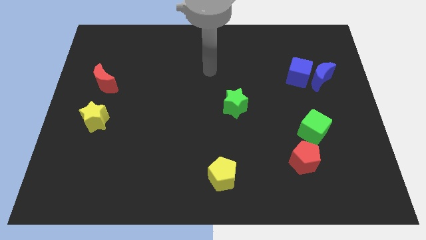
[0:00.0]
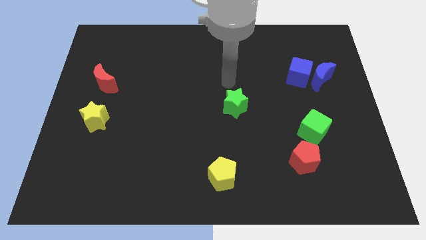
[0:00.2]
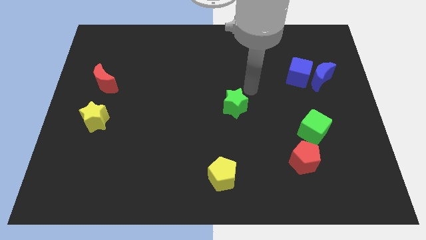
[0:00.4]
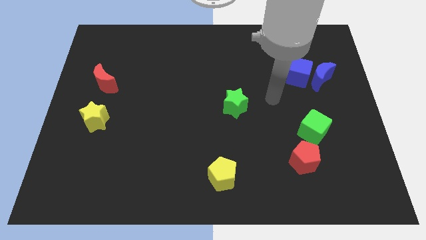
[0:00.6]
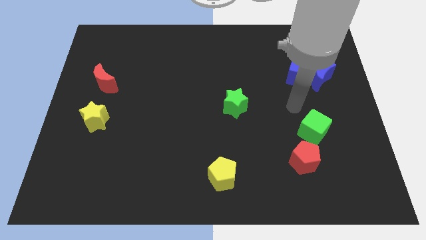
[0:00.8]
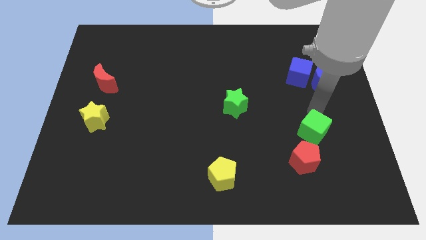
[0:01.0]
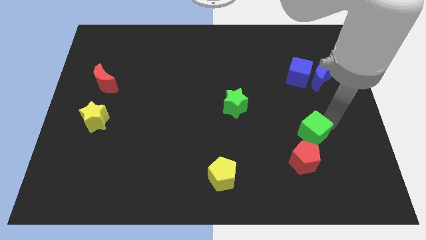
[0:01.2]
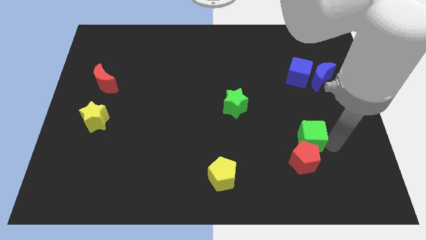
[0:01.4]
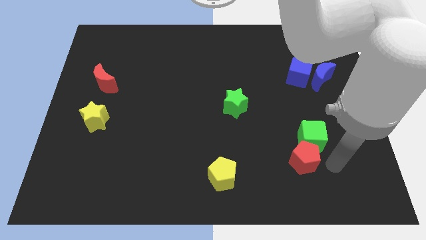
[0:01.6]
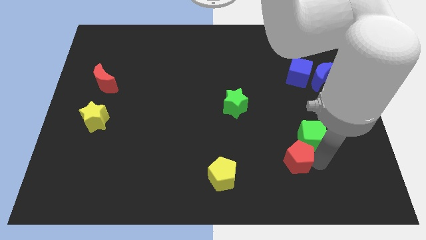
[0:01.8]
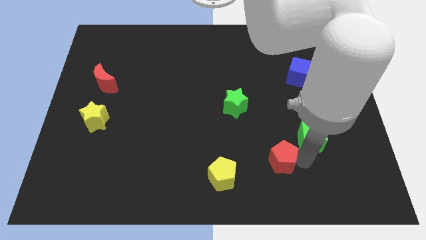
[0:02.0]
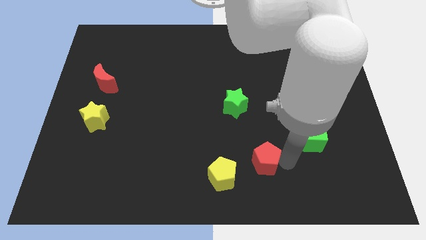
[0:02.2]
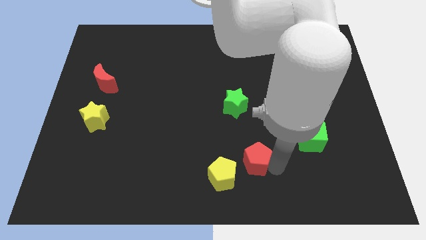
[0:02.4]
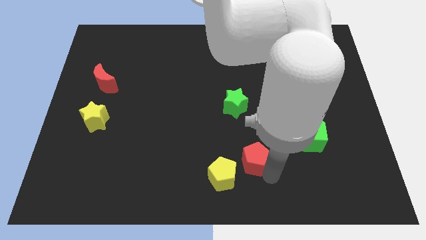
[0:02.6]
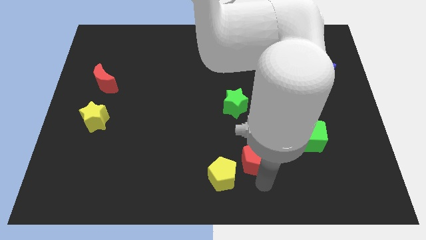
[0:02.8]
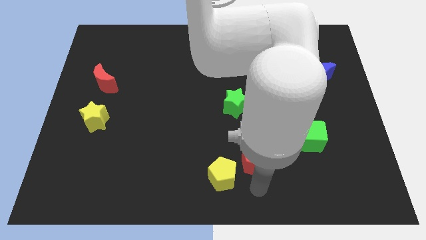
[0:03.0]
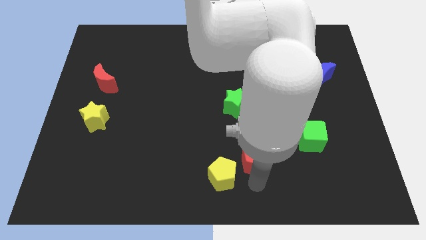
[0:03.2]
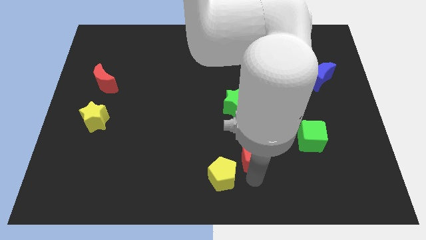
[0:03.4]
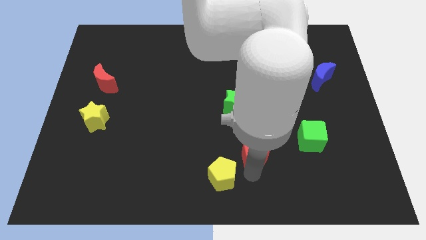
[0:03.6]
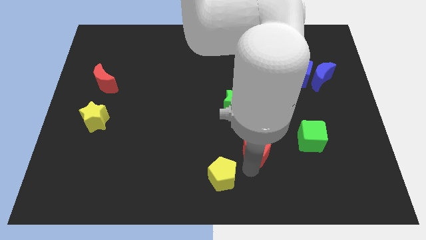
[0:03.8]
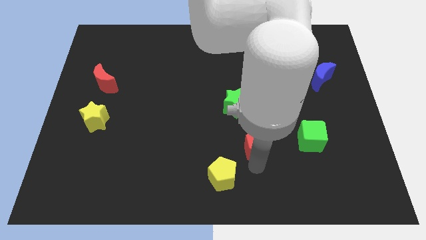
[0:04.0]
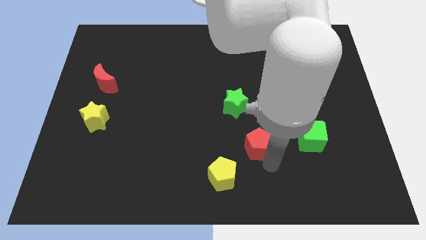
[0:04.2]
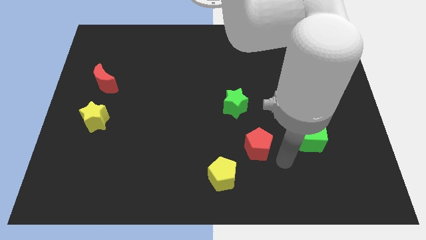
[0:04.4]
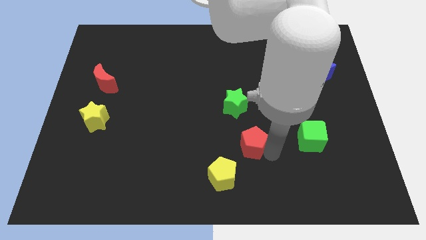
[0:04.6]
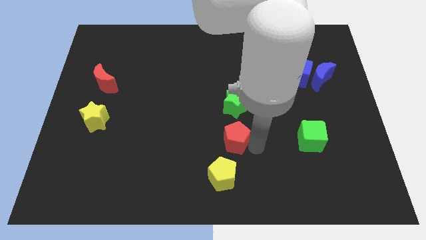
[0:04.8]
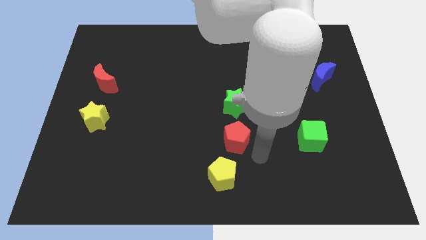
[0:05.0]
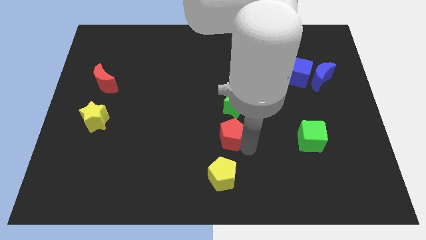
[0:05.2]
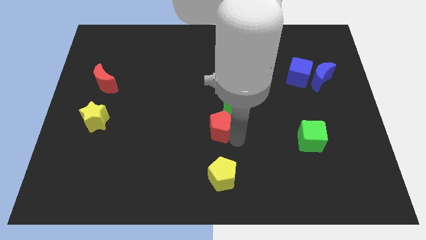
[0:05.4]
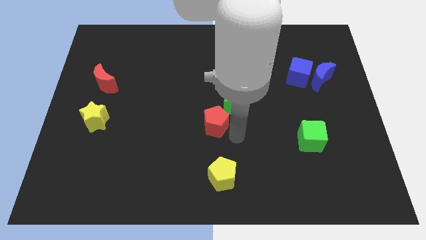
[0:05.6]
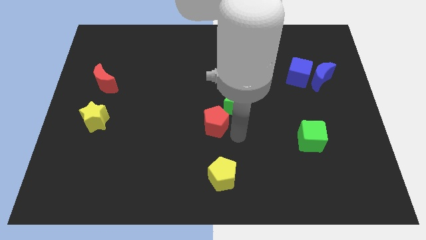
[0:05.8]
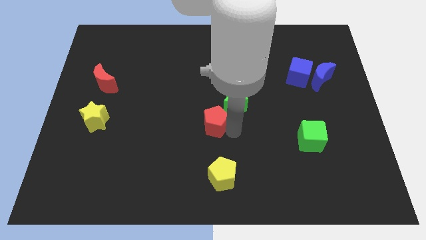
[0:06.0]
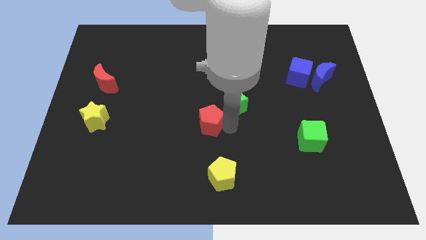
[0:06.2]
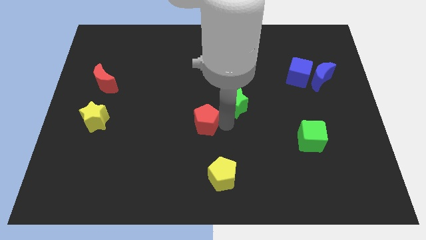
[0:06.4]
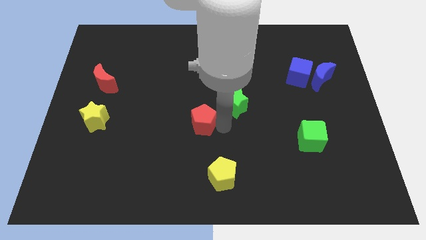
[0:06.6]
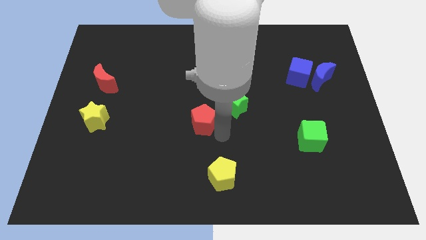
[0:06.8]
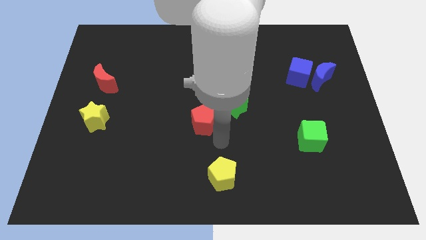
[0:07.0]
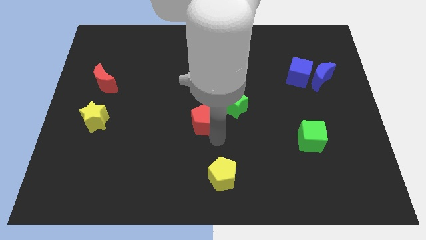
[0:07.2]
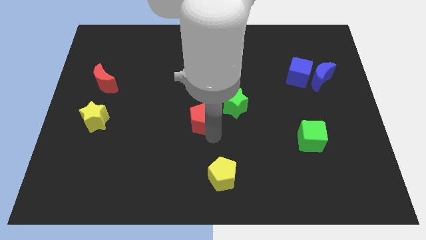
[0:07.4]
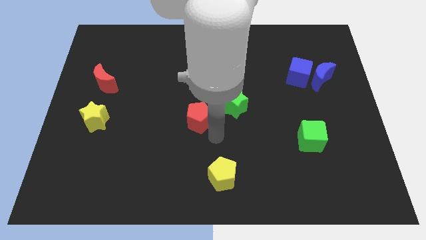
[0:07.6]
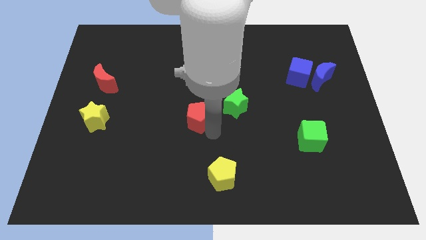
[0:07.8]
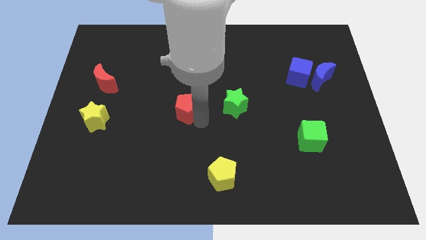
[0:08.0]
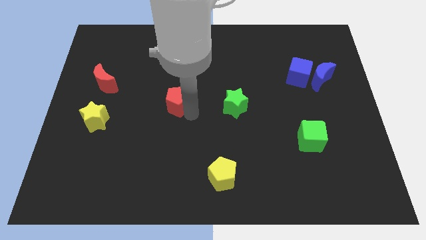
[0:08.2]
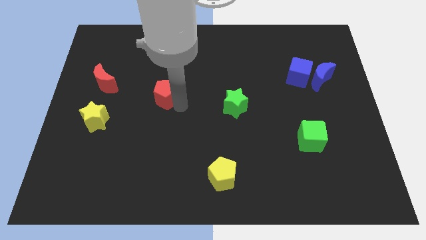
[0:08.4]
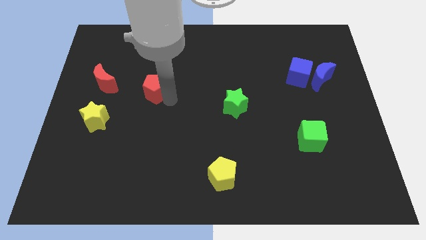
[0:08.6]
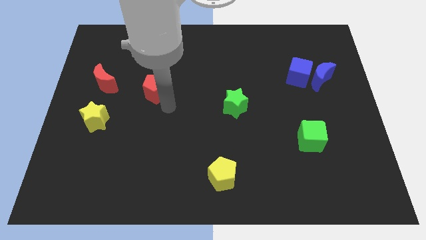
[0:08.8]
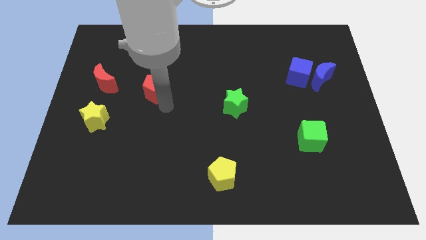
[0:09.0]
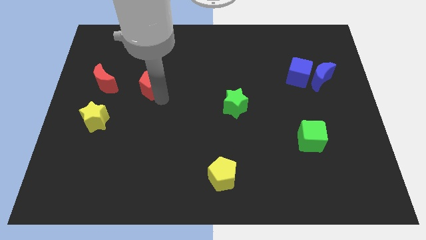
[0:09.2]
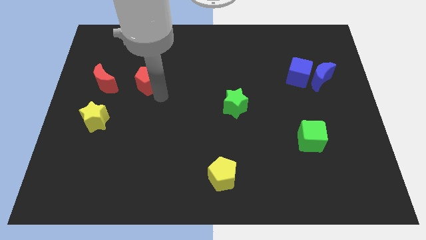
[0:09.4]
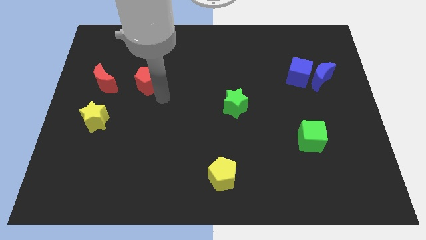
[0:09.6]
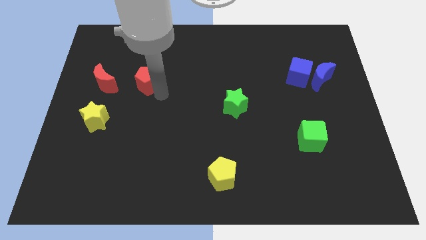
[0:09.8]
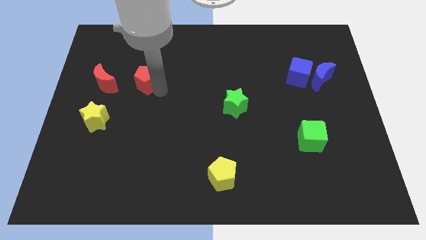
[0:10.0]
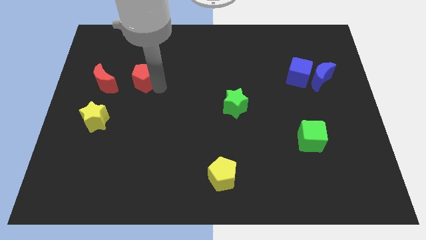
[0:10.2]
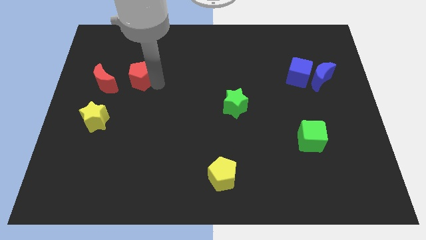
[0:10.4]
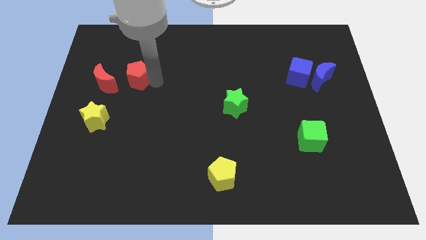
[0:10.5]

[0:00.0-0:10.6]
put the red pentagon to the top right of the red moon

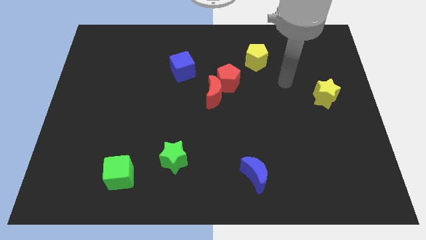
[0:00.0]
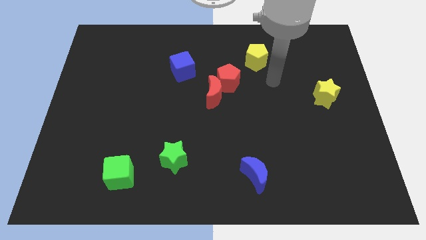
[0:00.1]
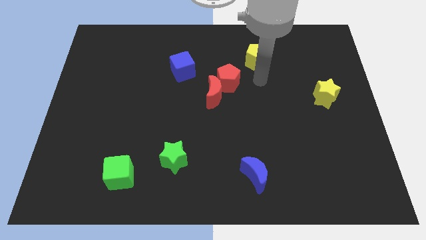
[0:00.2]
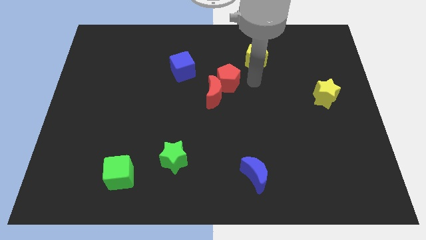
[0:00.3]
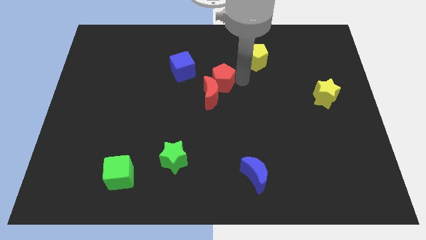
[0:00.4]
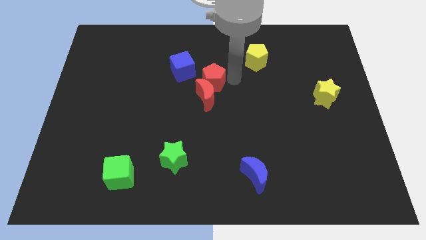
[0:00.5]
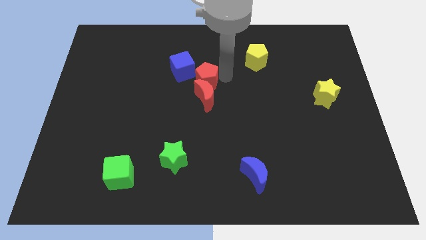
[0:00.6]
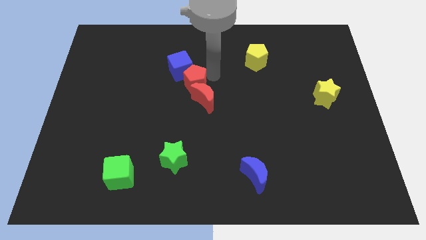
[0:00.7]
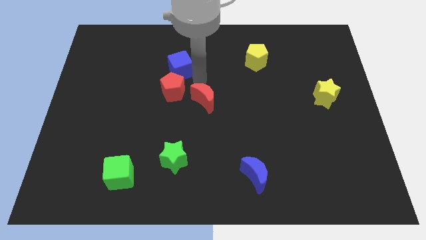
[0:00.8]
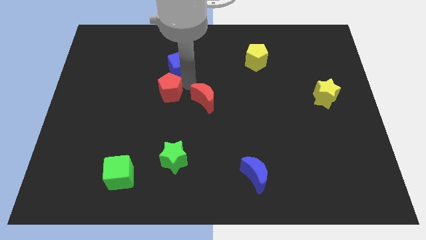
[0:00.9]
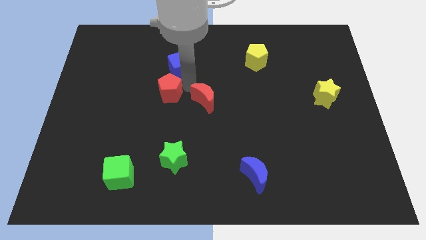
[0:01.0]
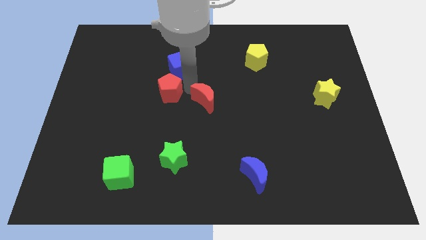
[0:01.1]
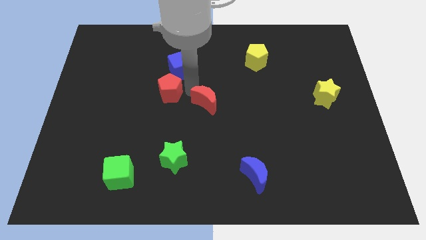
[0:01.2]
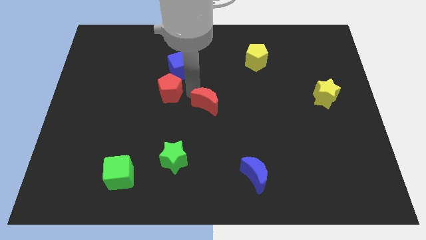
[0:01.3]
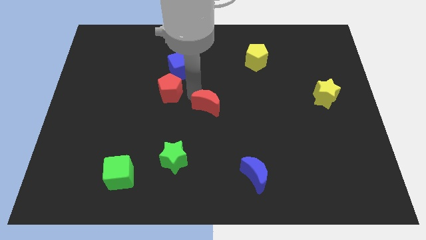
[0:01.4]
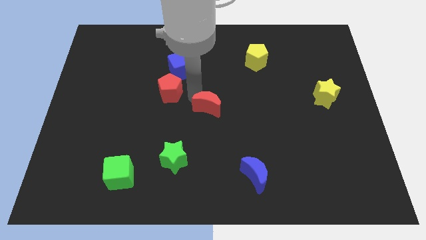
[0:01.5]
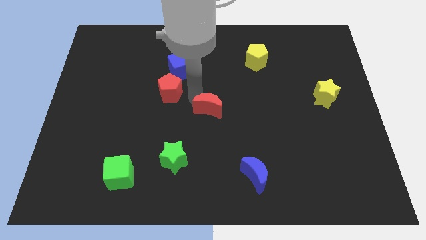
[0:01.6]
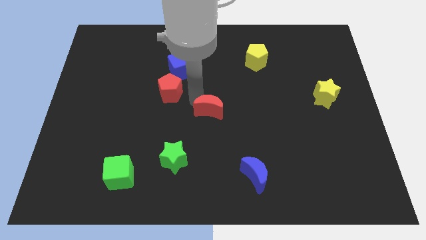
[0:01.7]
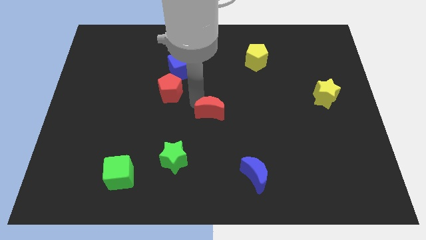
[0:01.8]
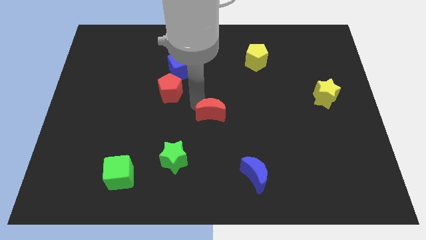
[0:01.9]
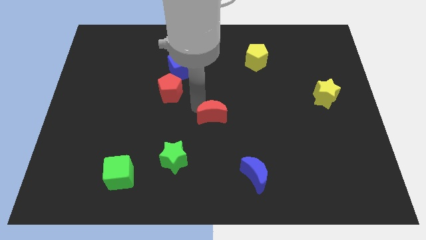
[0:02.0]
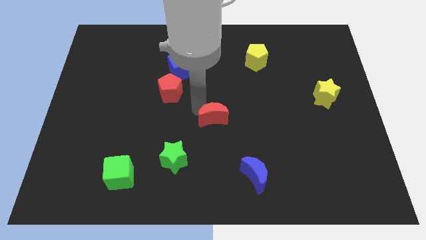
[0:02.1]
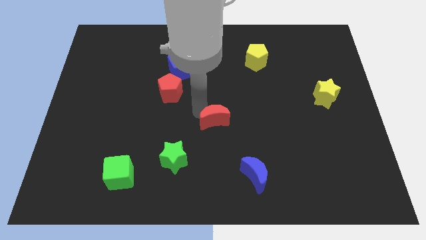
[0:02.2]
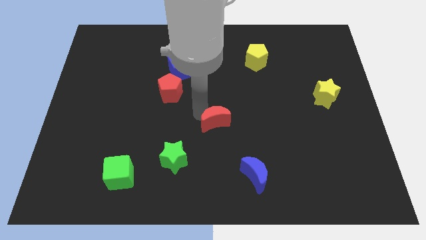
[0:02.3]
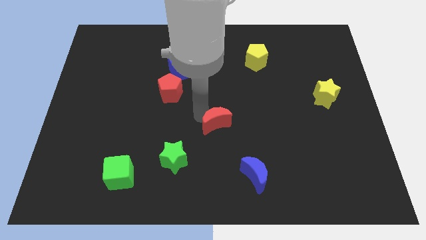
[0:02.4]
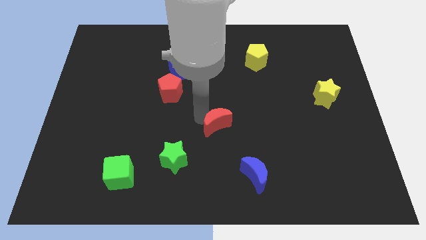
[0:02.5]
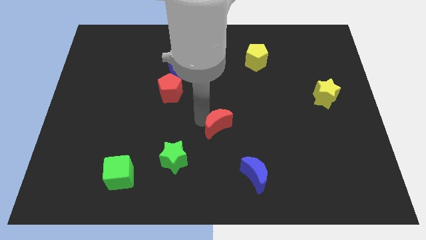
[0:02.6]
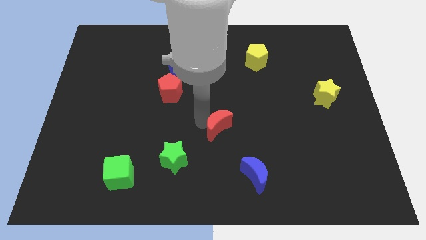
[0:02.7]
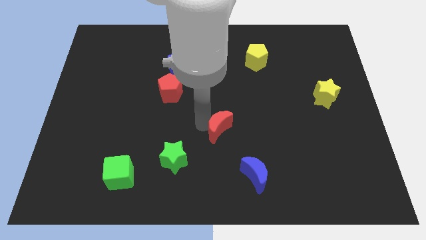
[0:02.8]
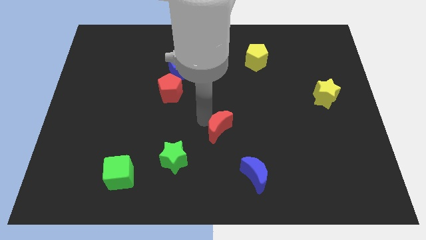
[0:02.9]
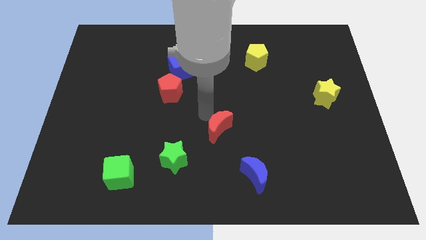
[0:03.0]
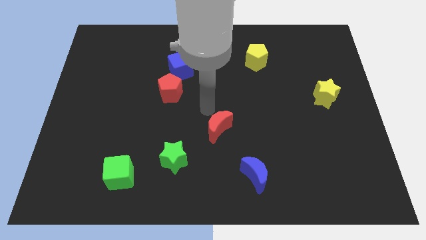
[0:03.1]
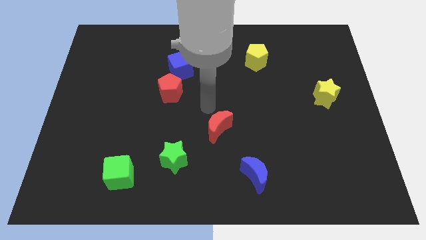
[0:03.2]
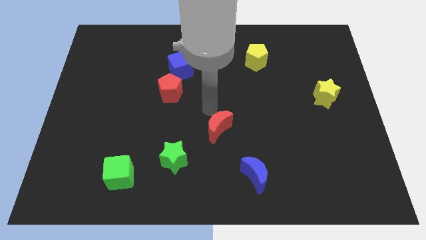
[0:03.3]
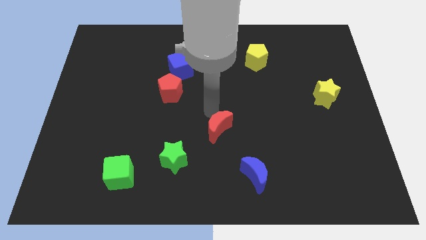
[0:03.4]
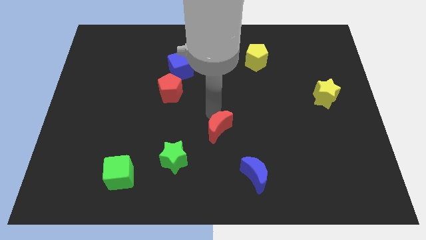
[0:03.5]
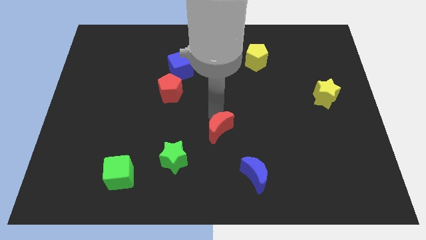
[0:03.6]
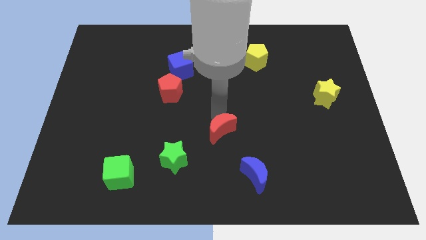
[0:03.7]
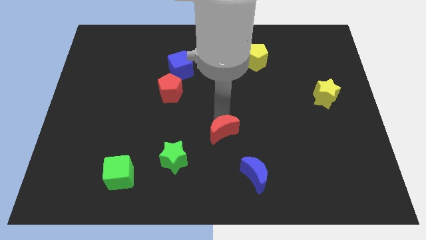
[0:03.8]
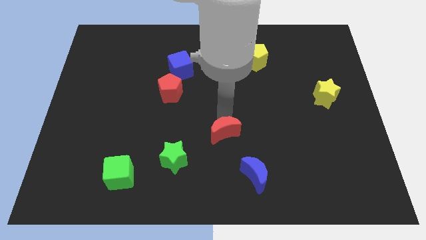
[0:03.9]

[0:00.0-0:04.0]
slide the red moon to the top left side of the blue moon
